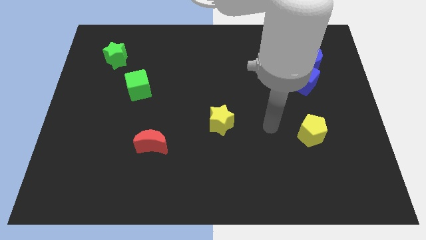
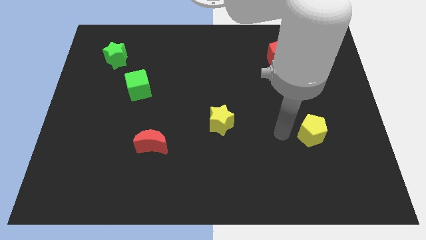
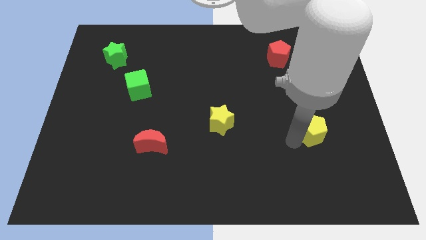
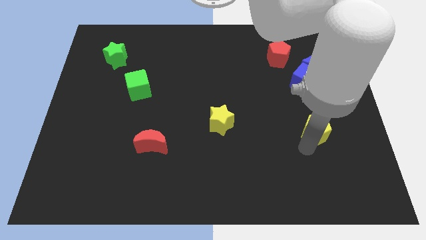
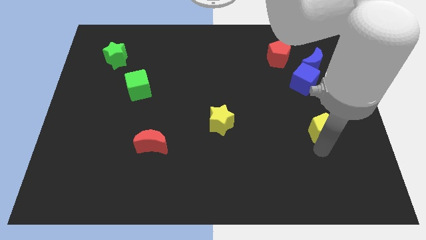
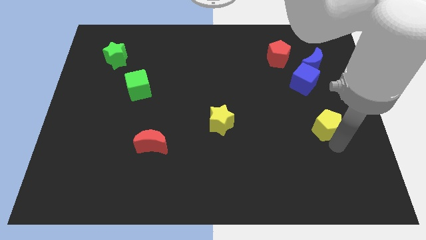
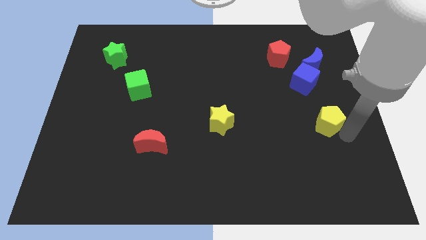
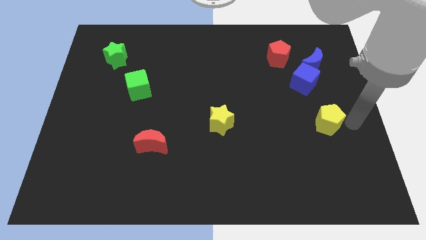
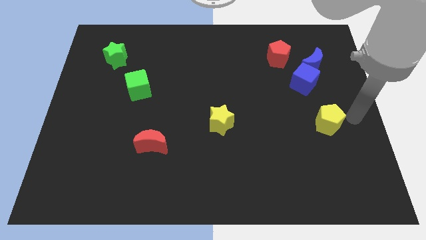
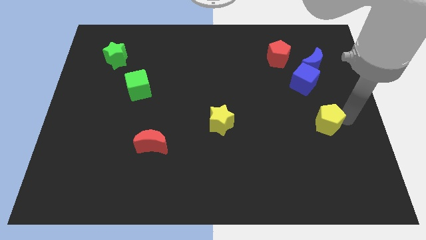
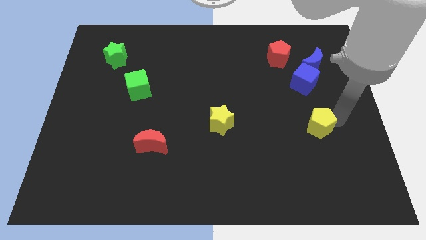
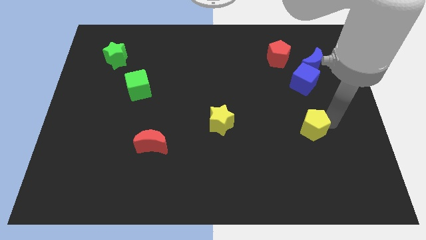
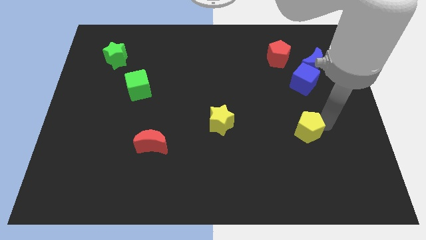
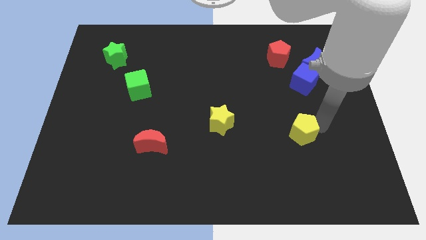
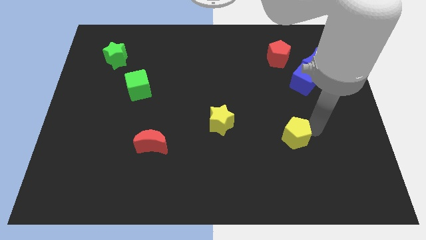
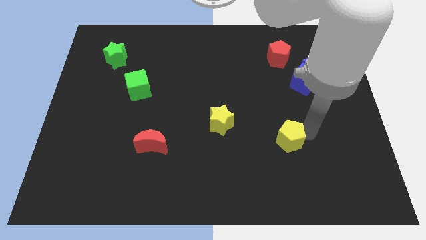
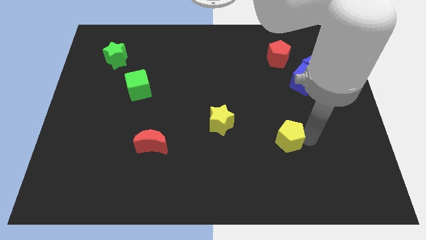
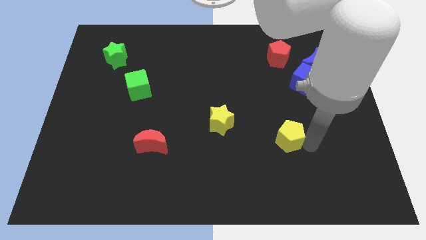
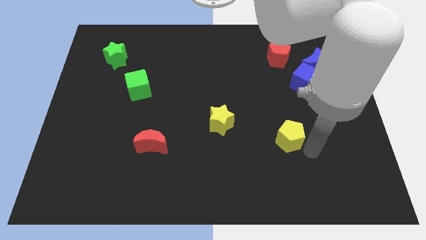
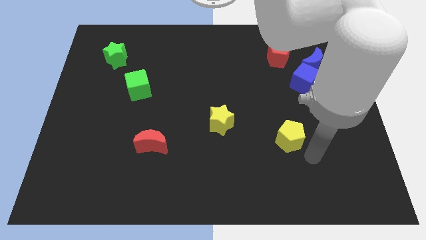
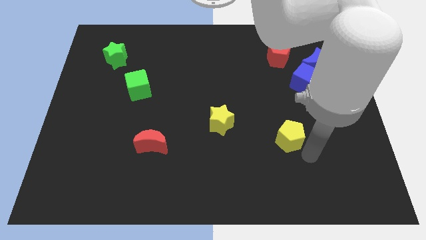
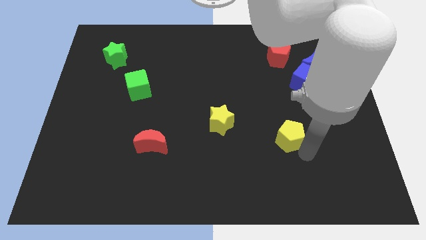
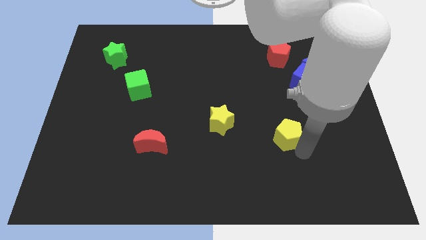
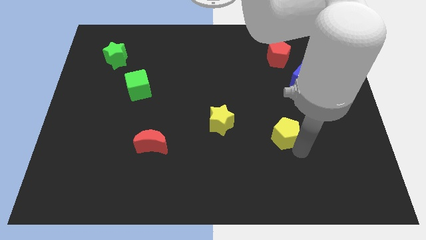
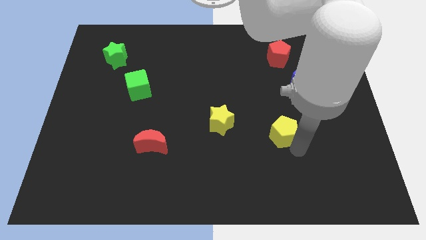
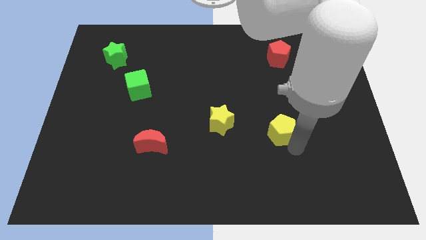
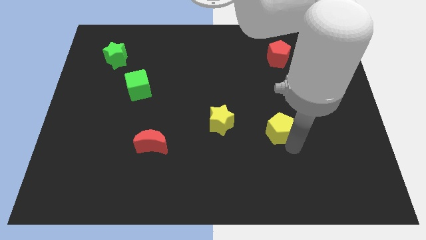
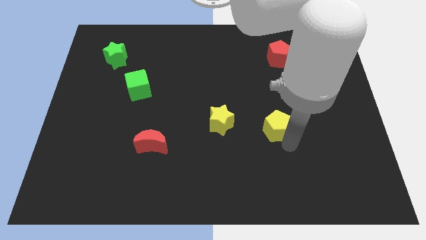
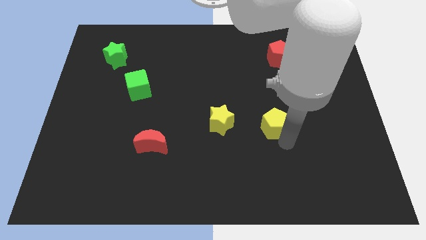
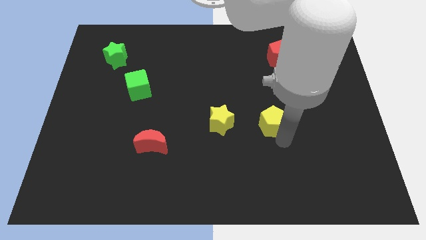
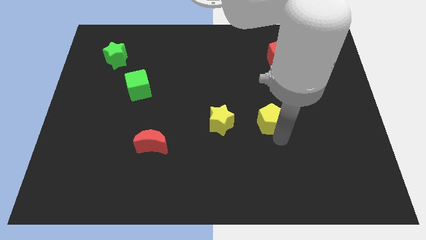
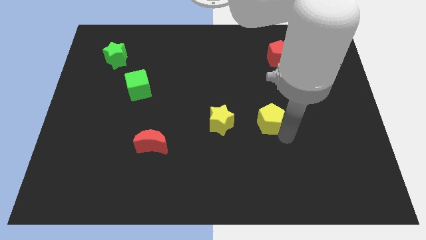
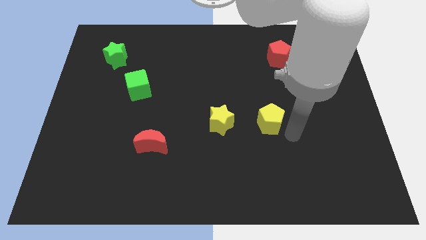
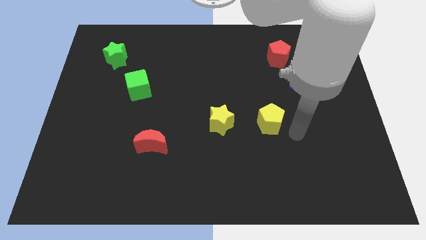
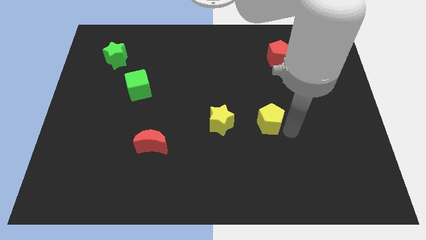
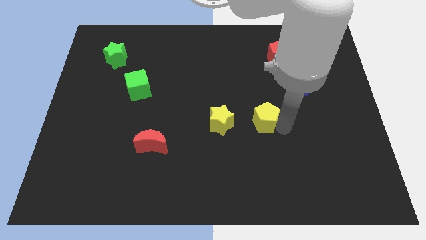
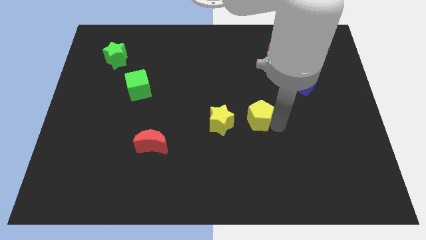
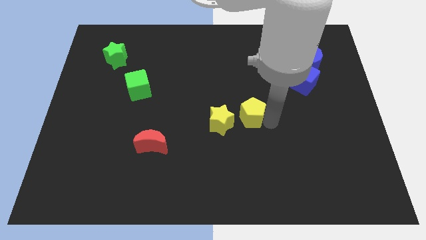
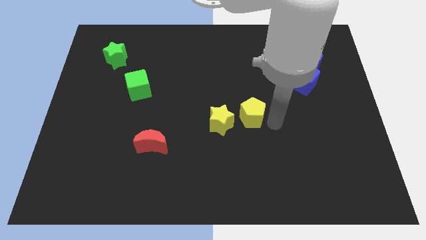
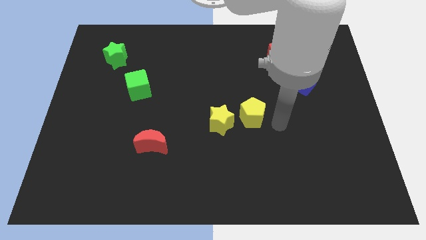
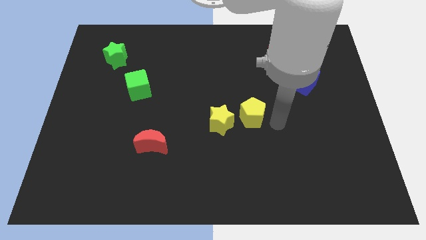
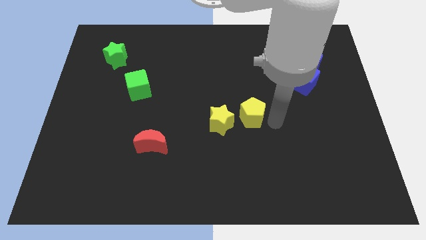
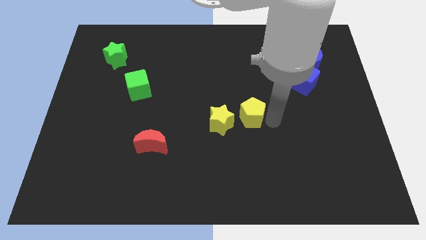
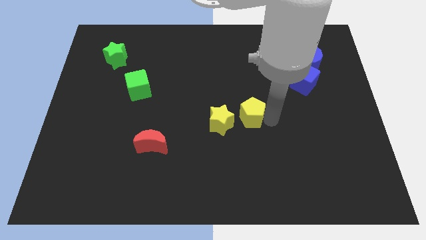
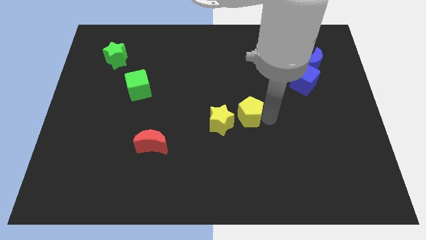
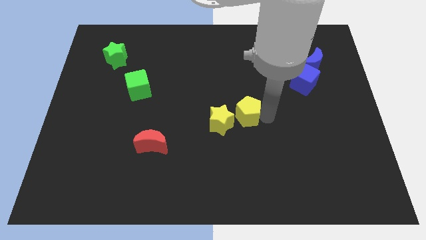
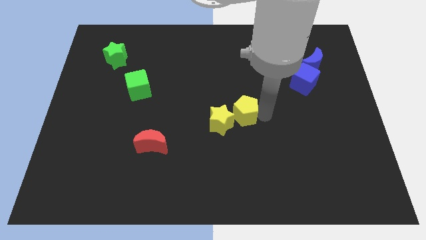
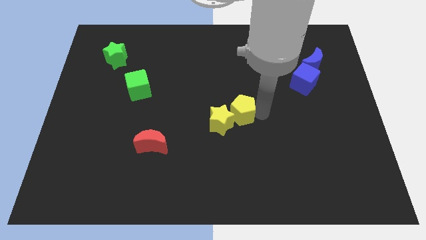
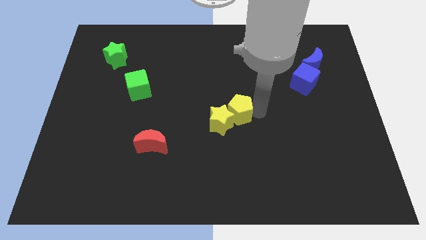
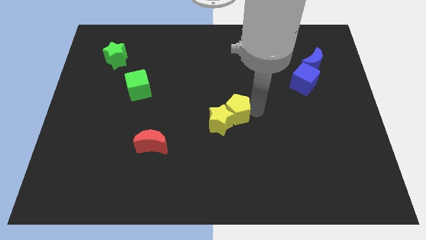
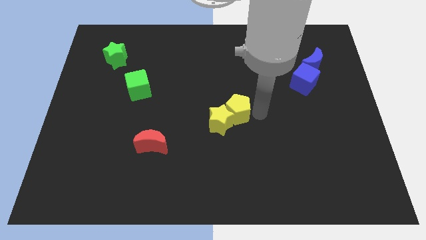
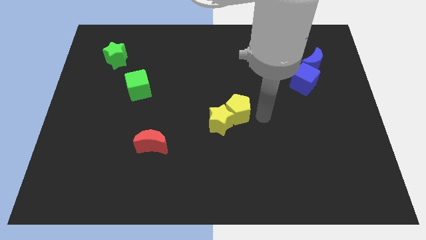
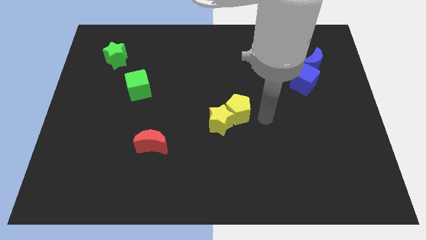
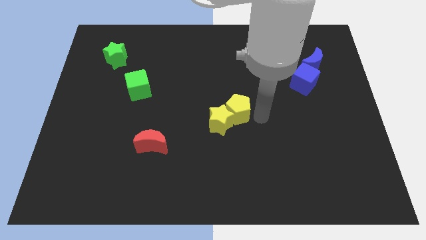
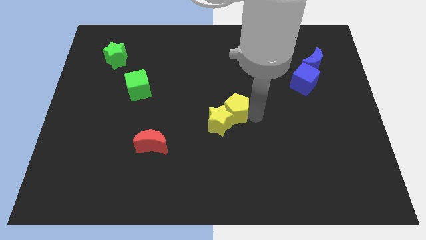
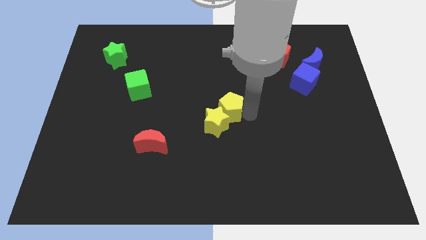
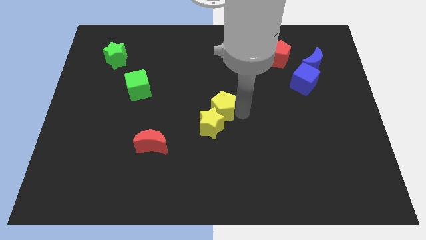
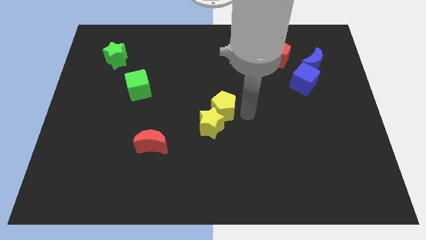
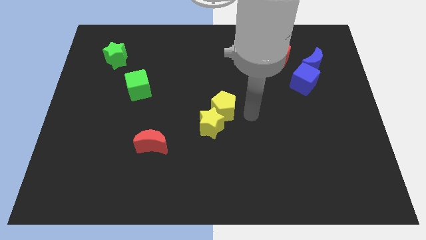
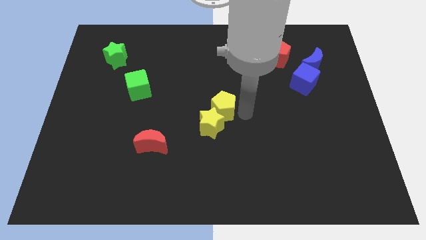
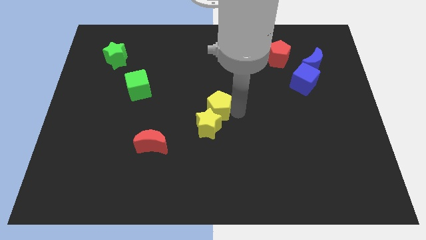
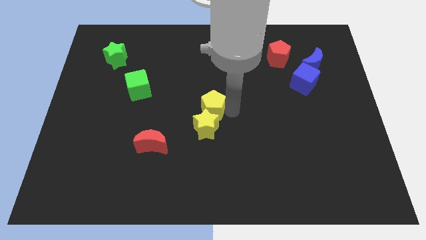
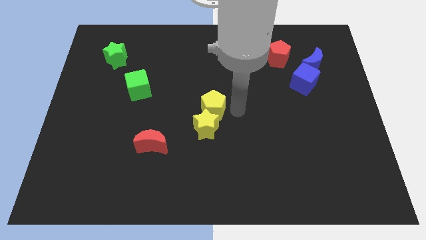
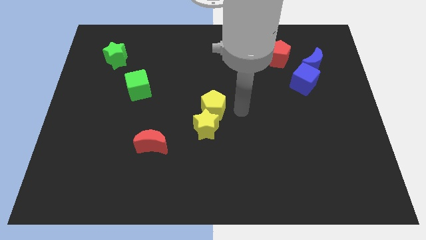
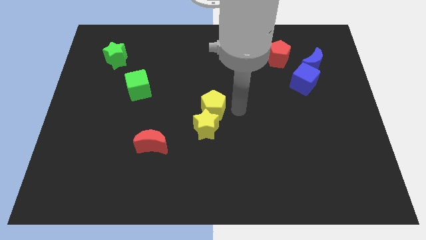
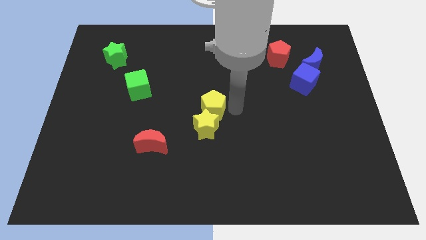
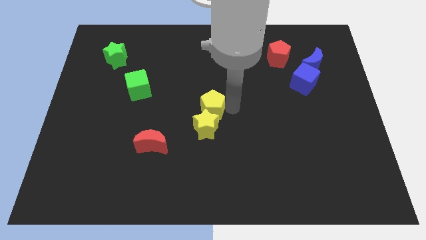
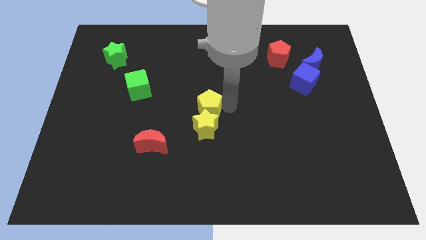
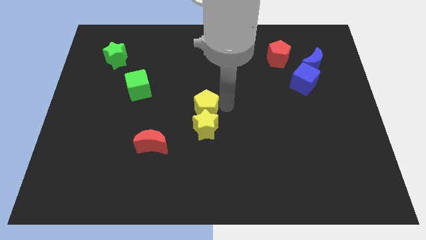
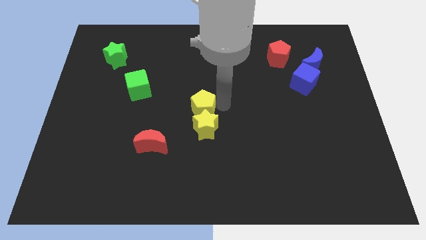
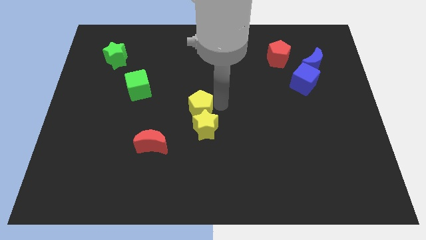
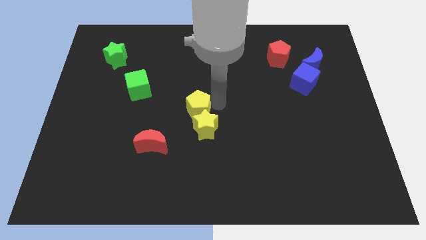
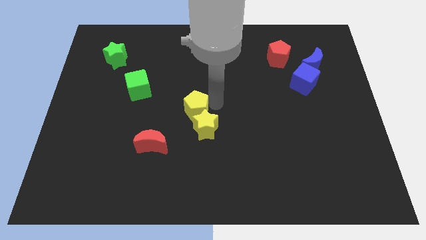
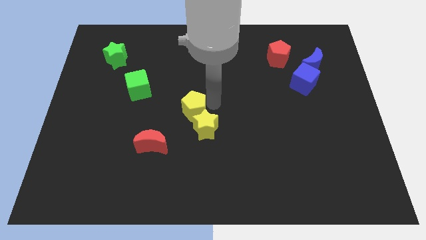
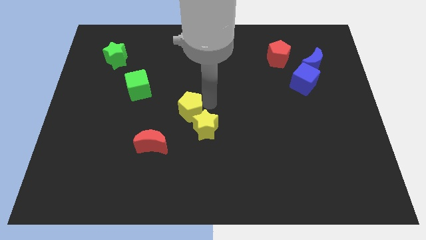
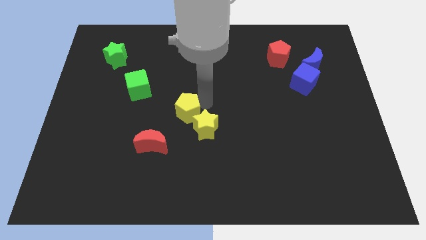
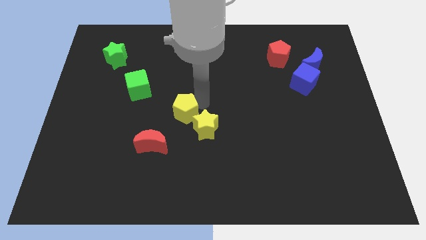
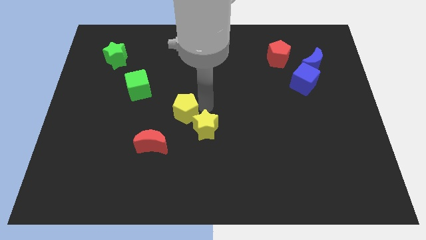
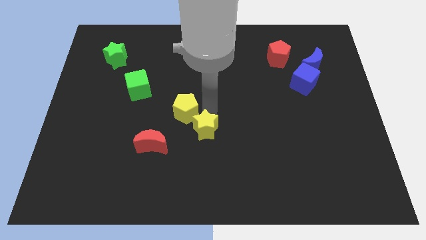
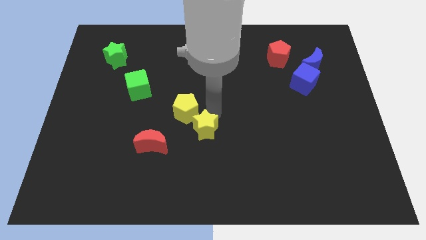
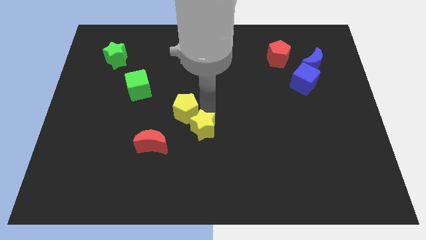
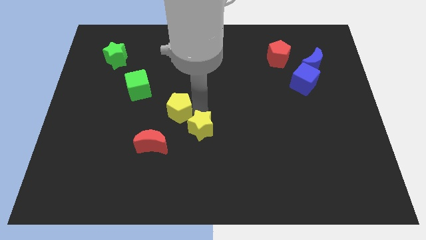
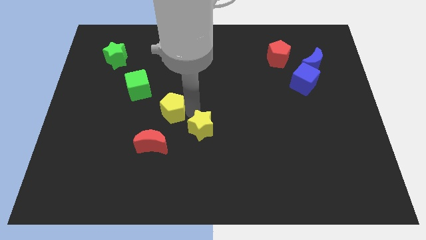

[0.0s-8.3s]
slide the yellow pentagon above the red moon
